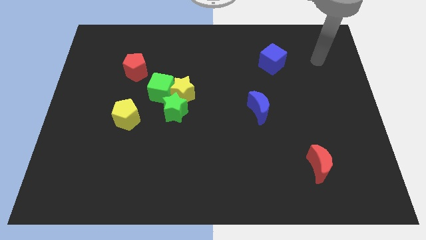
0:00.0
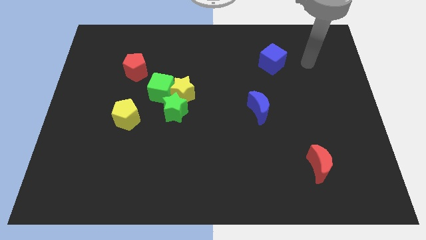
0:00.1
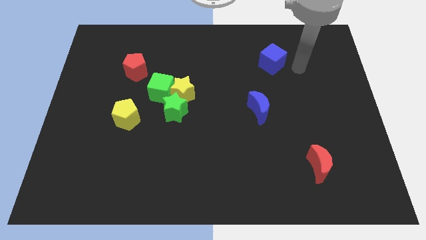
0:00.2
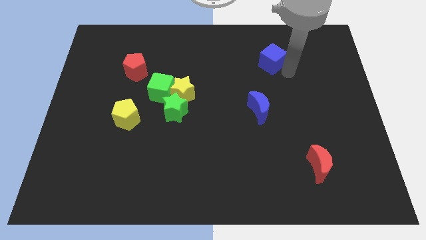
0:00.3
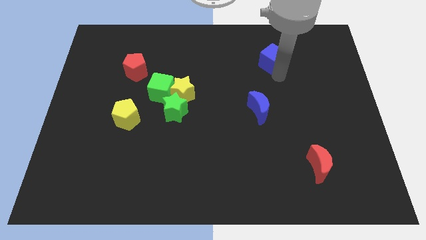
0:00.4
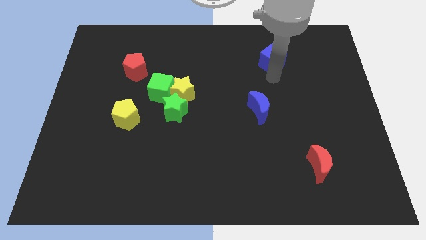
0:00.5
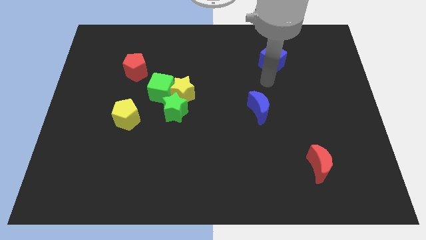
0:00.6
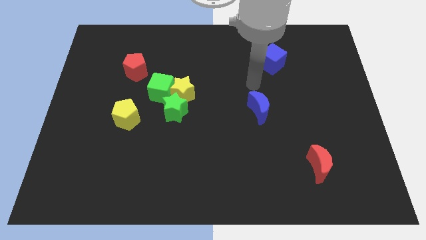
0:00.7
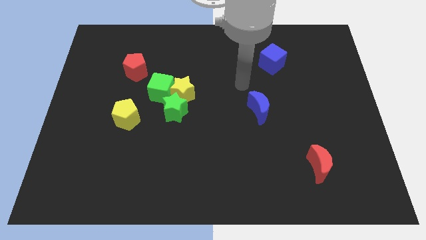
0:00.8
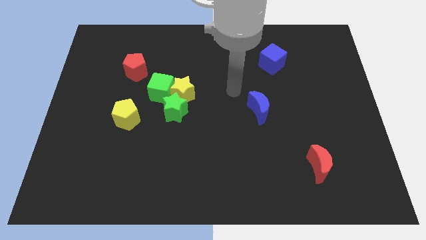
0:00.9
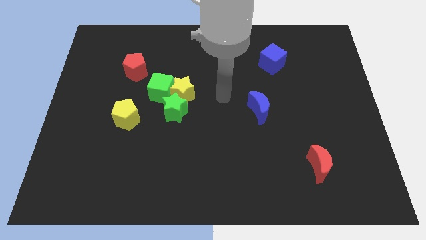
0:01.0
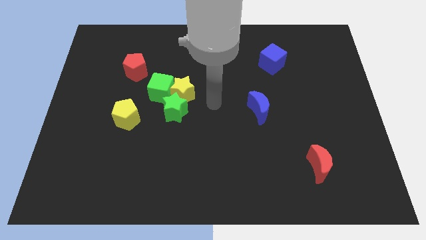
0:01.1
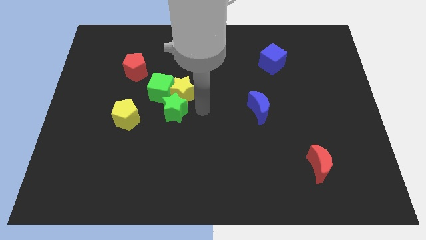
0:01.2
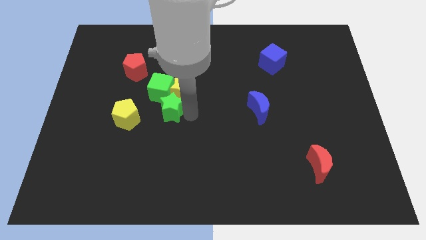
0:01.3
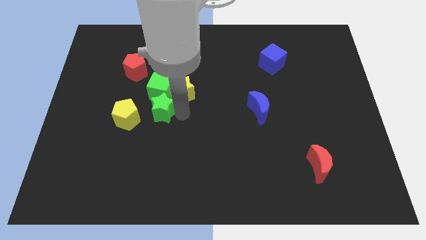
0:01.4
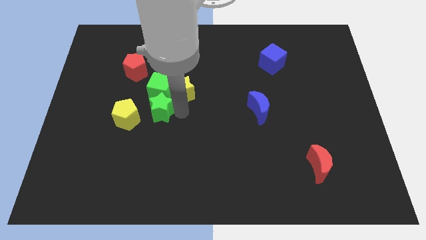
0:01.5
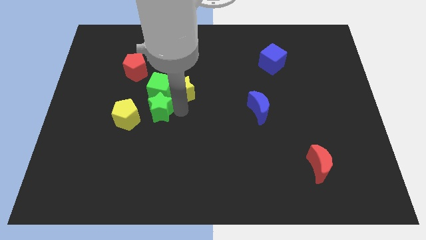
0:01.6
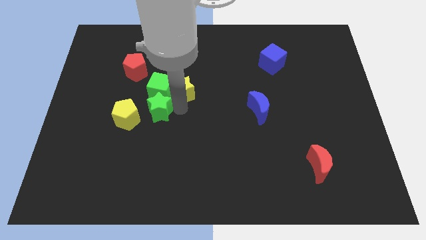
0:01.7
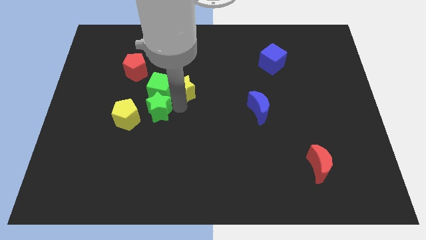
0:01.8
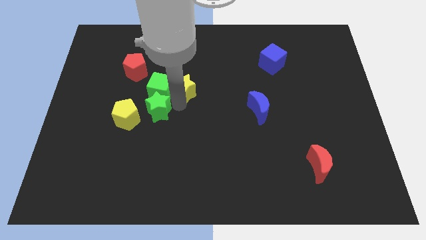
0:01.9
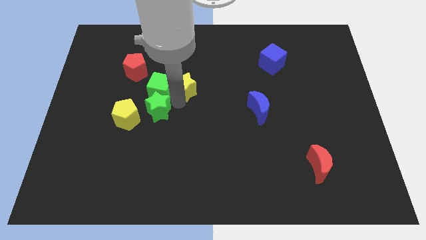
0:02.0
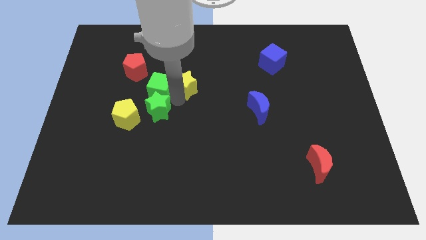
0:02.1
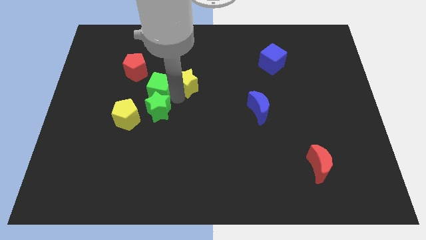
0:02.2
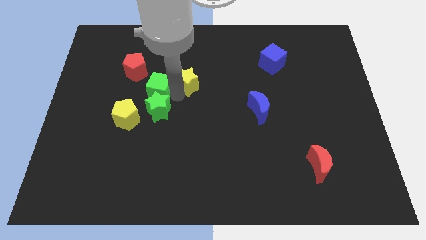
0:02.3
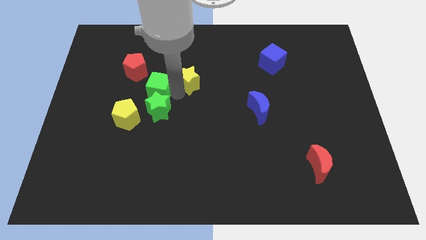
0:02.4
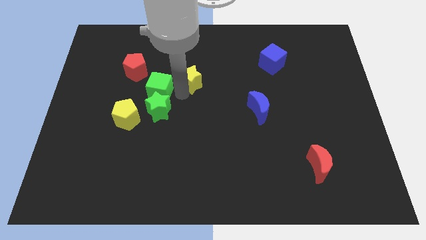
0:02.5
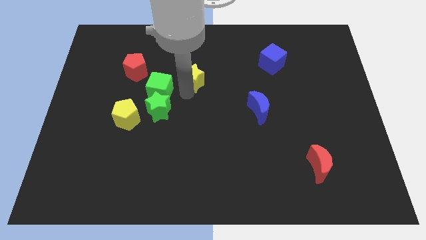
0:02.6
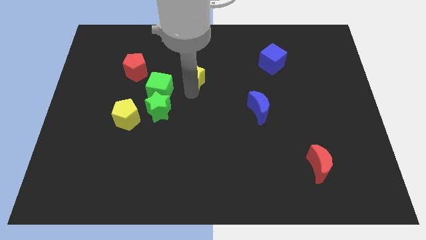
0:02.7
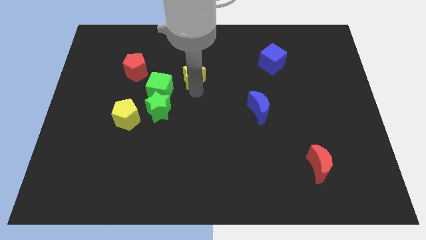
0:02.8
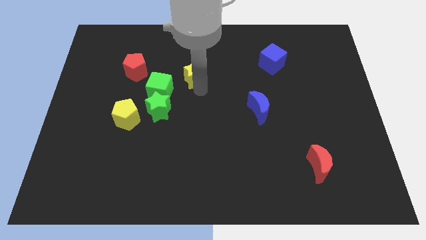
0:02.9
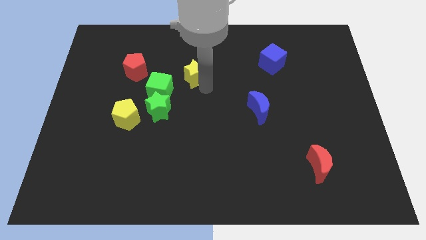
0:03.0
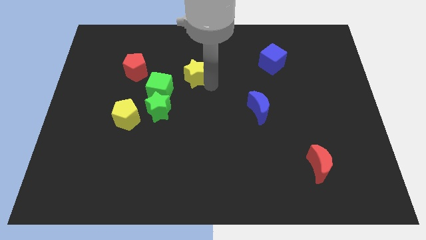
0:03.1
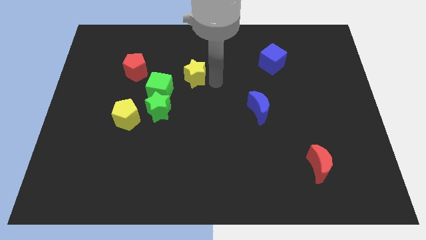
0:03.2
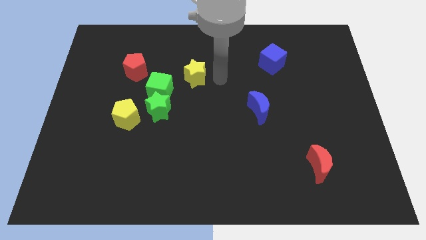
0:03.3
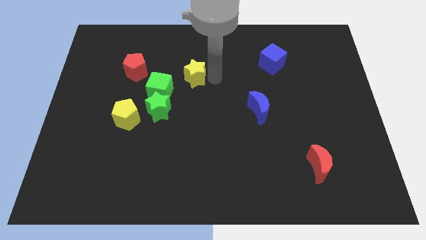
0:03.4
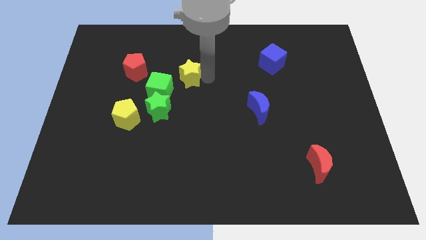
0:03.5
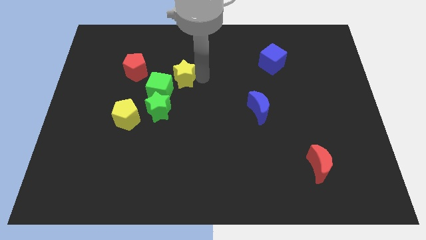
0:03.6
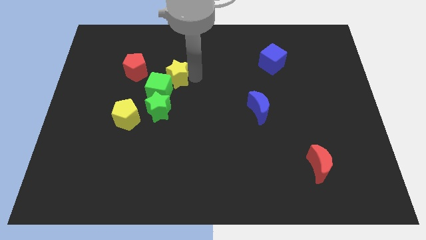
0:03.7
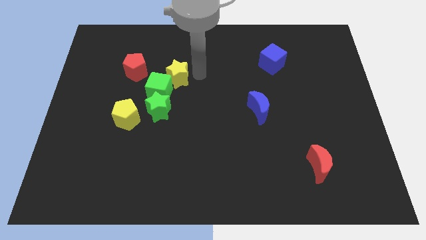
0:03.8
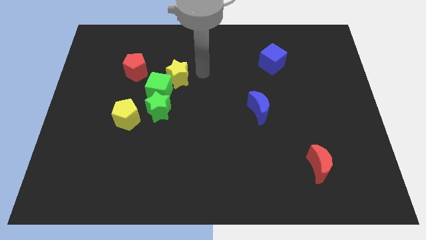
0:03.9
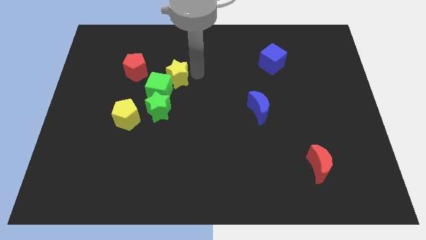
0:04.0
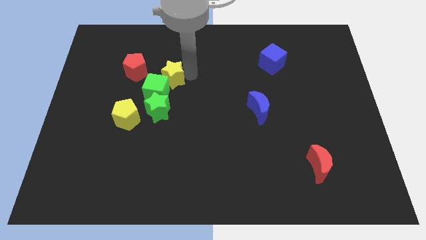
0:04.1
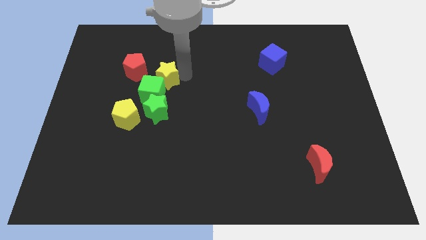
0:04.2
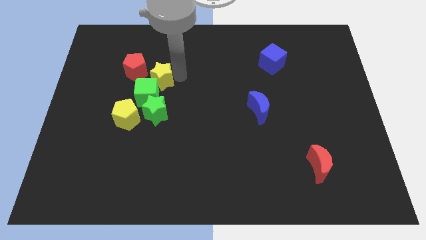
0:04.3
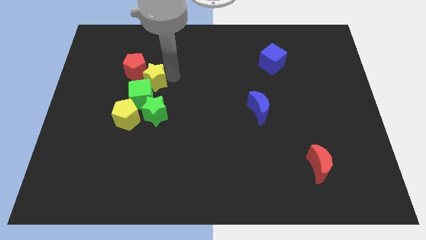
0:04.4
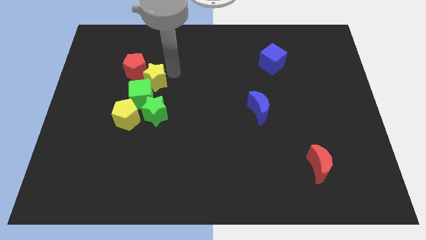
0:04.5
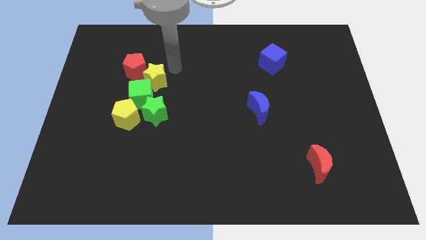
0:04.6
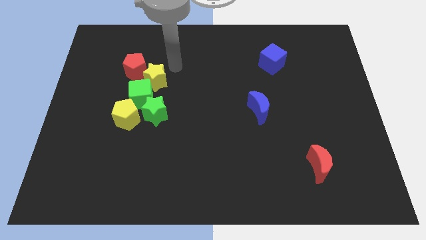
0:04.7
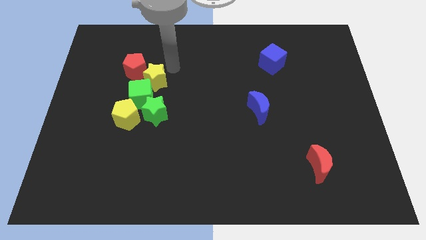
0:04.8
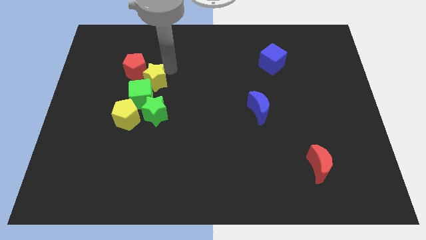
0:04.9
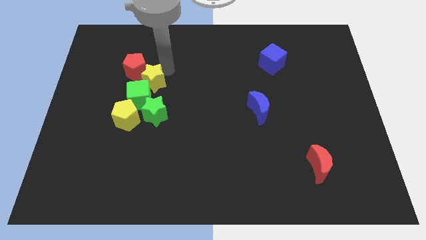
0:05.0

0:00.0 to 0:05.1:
push the yellow star a little bit left

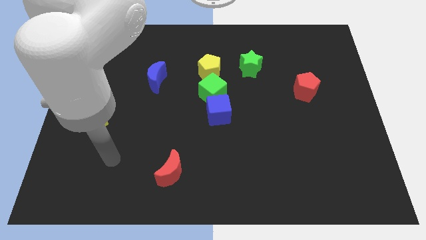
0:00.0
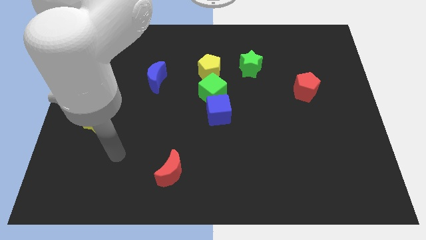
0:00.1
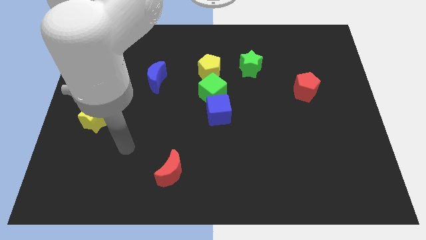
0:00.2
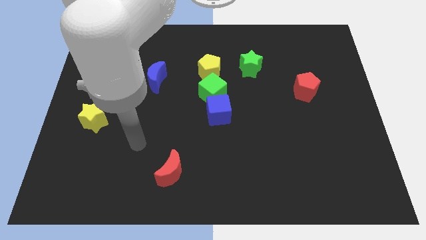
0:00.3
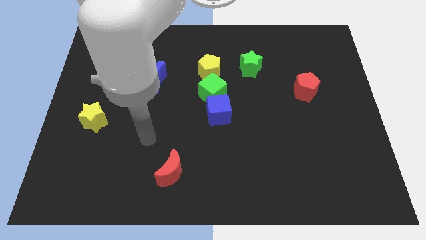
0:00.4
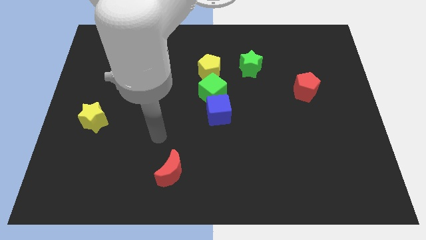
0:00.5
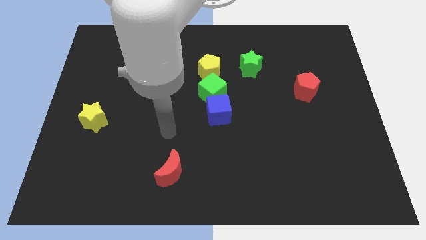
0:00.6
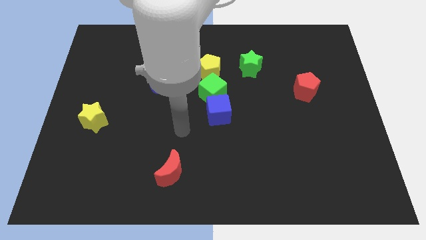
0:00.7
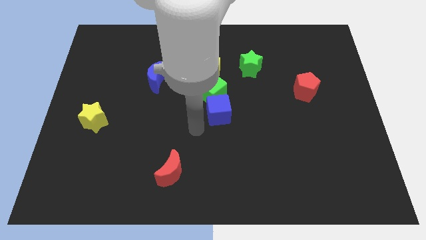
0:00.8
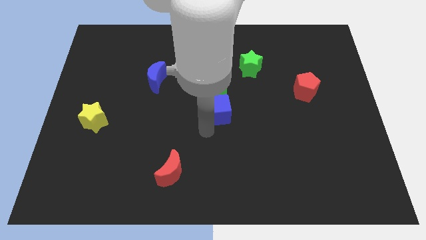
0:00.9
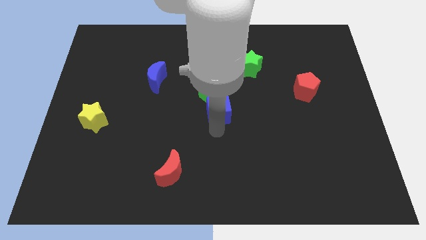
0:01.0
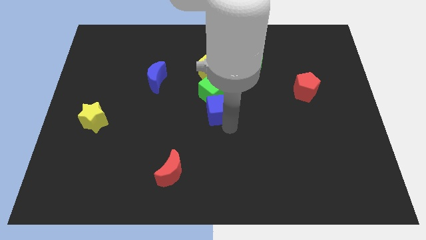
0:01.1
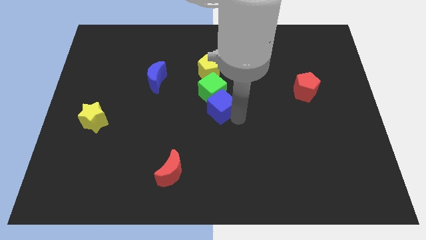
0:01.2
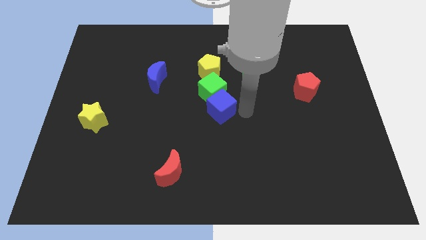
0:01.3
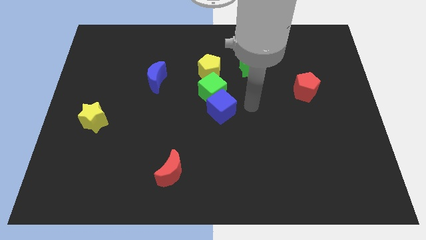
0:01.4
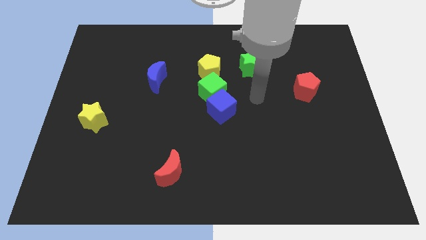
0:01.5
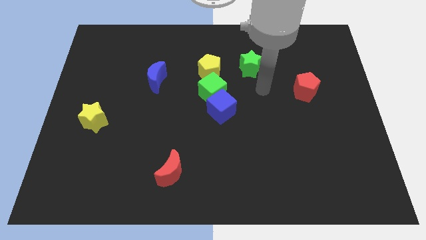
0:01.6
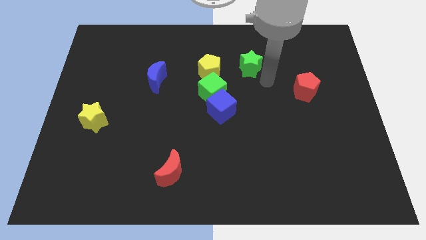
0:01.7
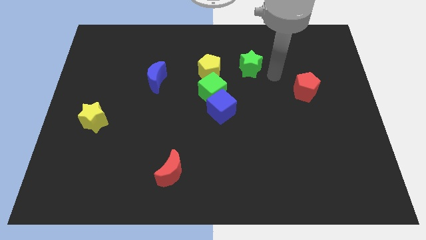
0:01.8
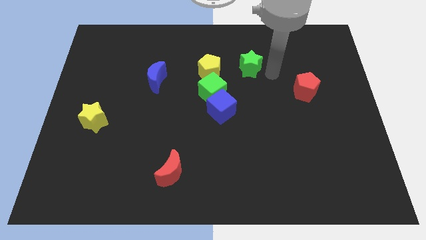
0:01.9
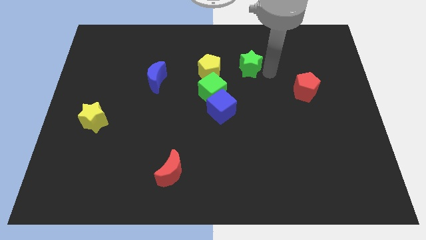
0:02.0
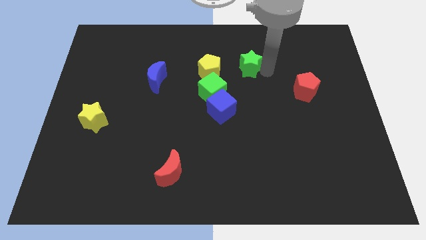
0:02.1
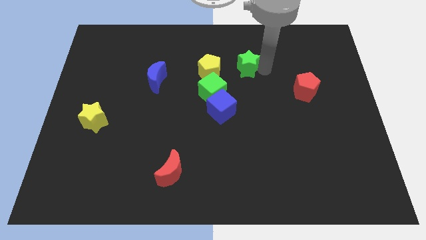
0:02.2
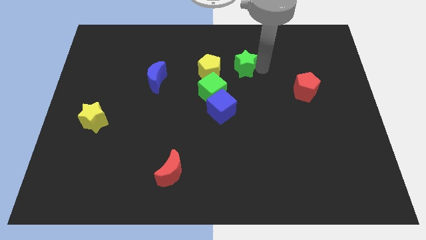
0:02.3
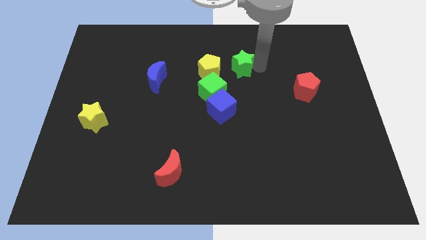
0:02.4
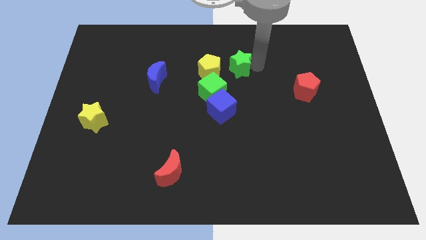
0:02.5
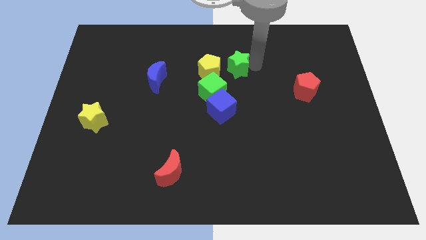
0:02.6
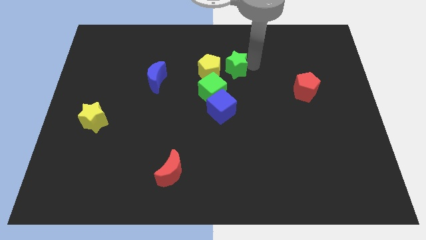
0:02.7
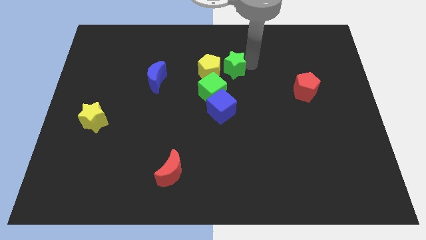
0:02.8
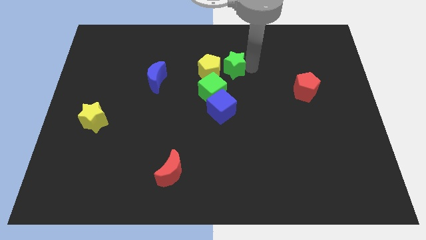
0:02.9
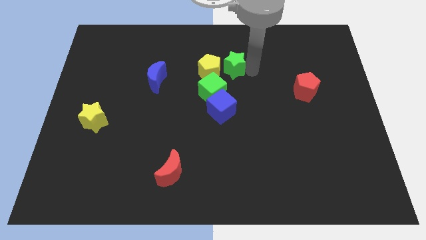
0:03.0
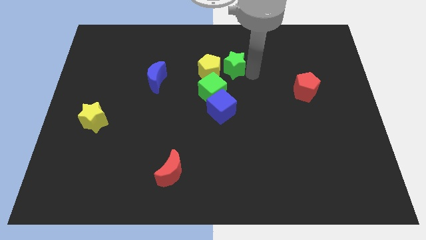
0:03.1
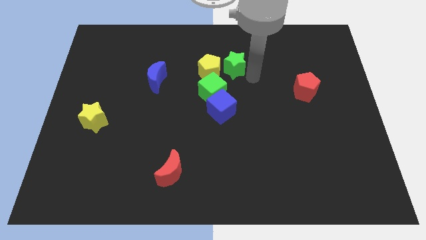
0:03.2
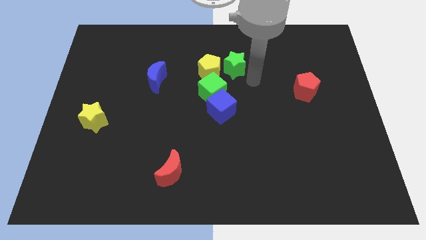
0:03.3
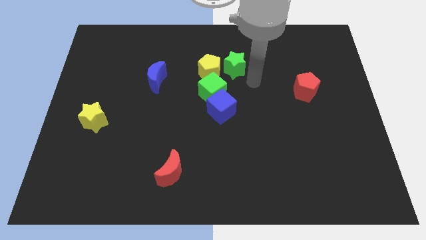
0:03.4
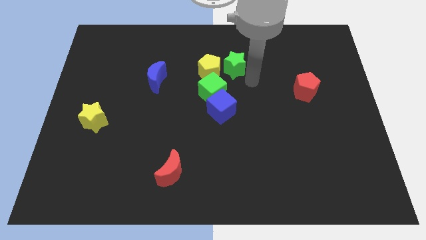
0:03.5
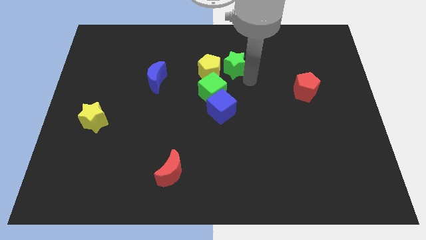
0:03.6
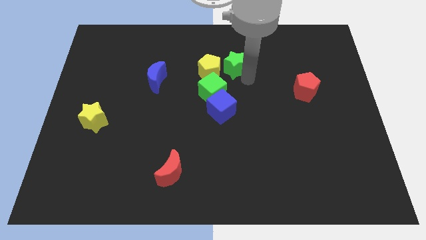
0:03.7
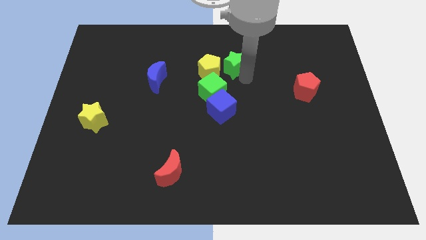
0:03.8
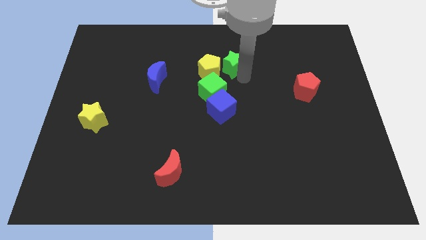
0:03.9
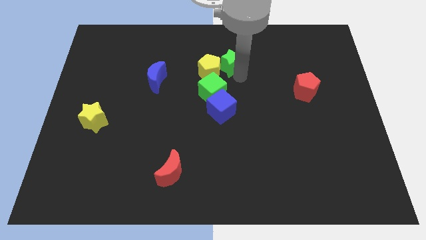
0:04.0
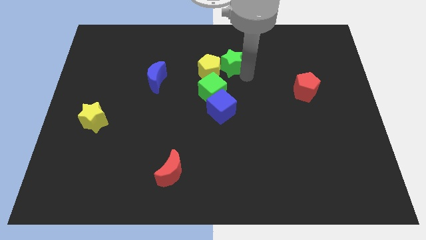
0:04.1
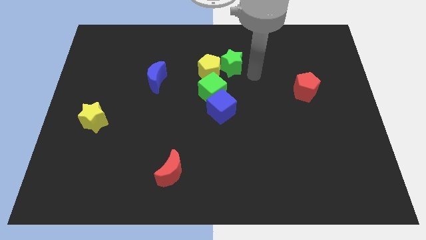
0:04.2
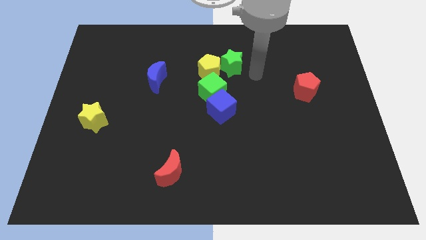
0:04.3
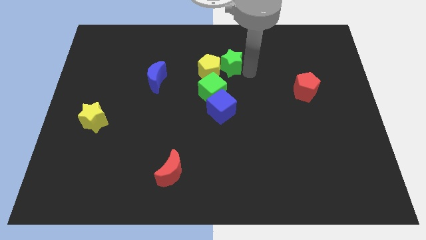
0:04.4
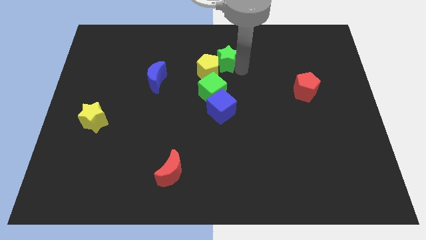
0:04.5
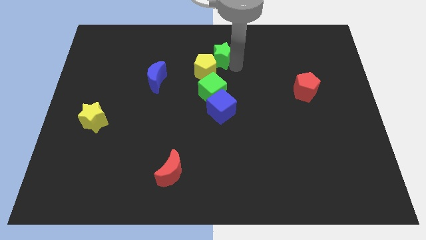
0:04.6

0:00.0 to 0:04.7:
slightly slide the green star to the left
